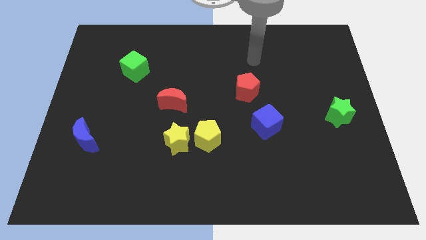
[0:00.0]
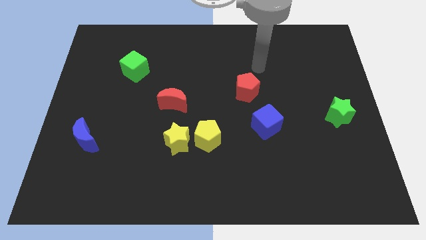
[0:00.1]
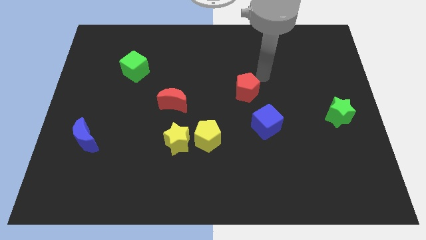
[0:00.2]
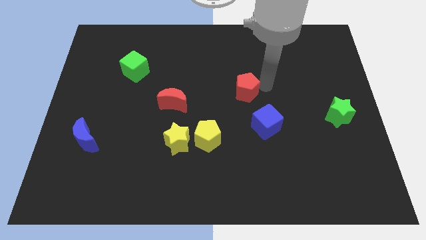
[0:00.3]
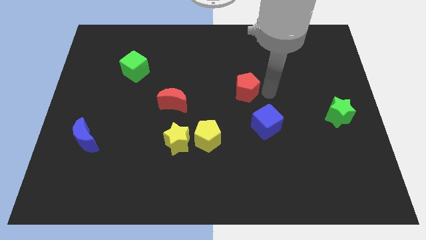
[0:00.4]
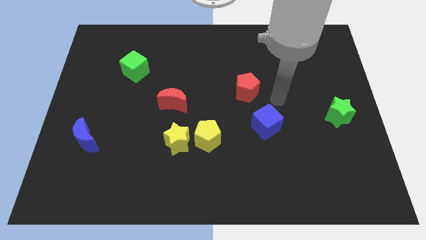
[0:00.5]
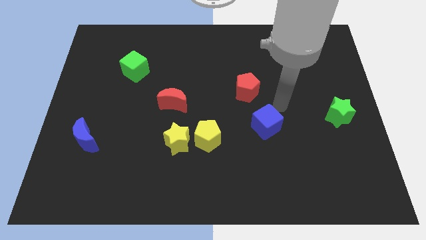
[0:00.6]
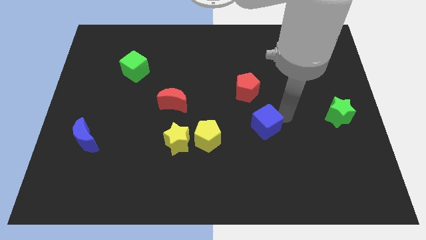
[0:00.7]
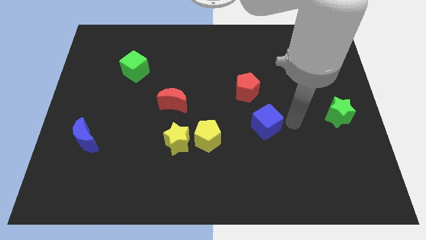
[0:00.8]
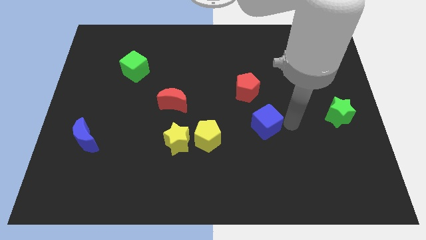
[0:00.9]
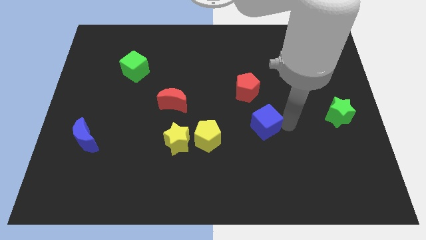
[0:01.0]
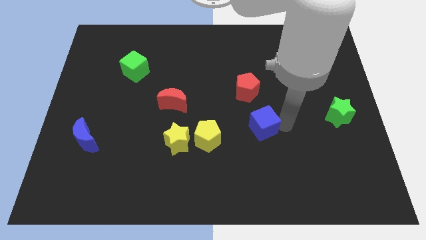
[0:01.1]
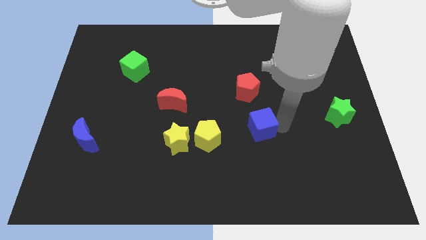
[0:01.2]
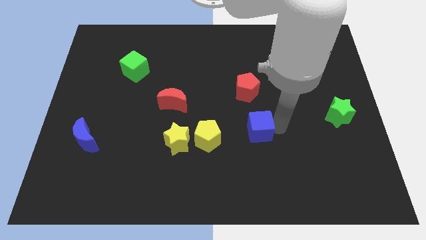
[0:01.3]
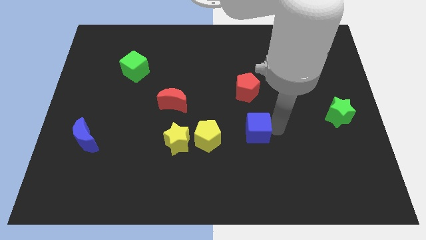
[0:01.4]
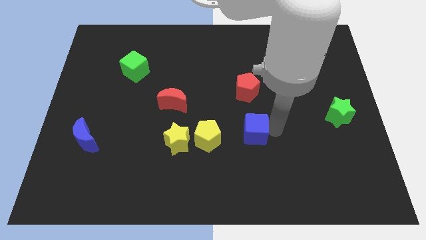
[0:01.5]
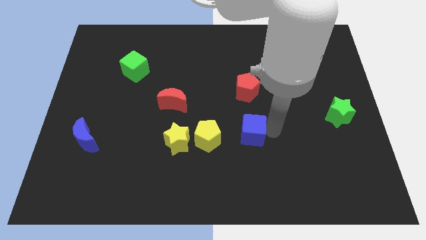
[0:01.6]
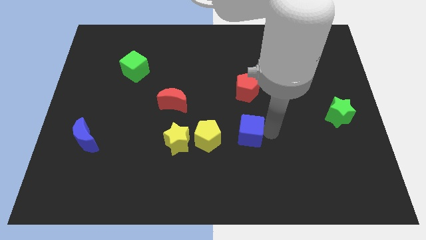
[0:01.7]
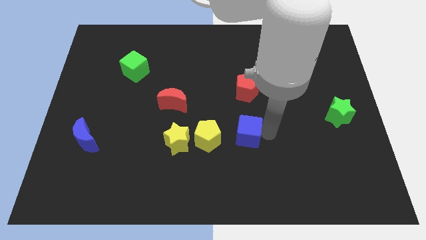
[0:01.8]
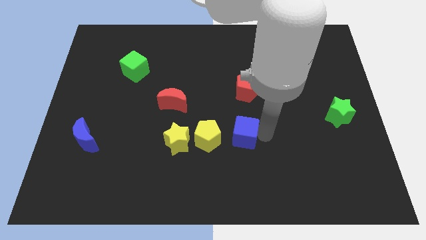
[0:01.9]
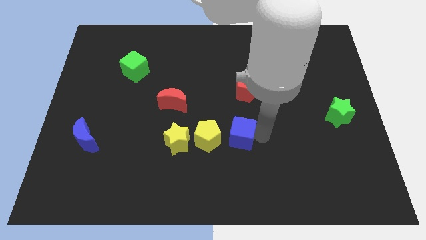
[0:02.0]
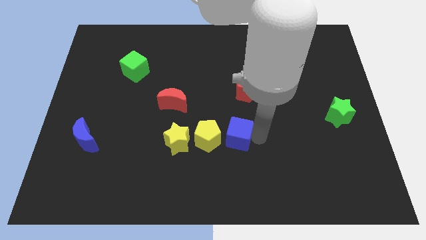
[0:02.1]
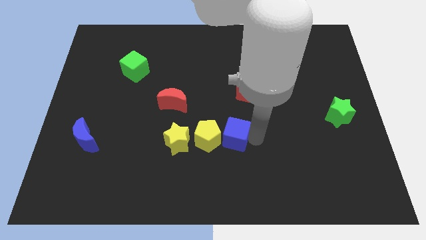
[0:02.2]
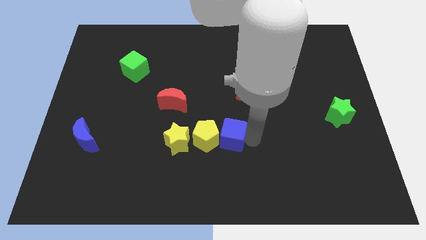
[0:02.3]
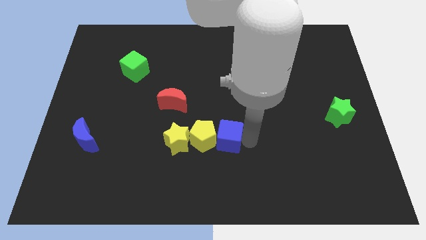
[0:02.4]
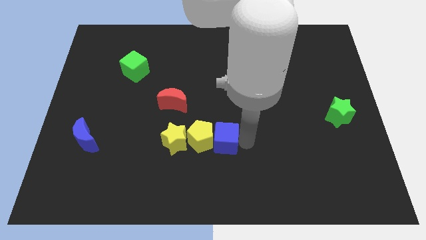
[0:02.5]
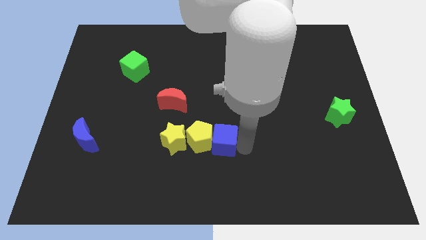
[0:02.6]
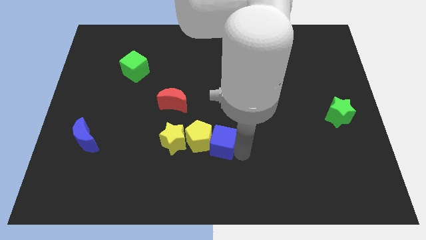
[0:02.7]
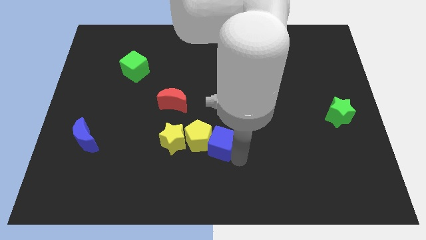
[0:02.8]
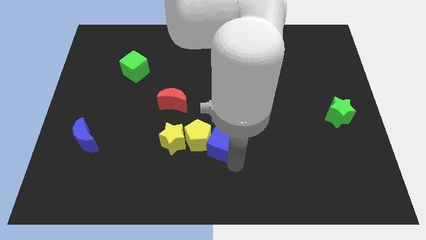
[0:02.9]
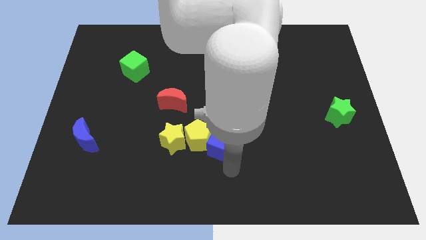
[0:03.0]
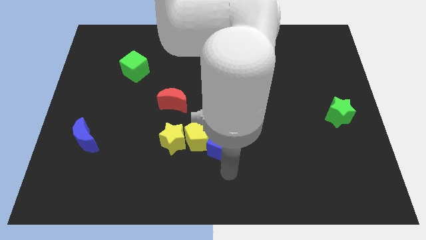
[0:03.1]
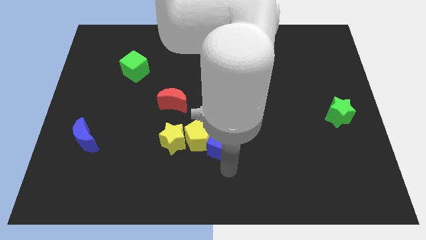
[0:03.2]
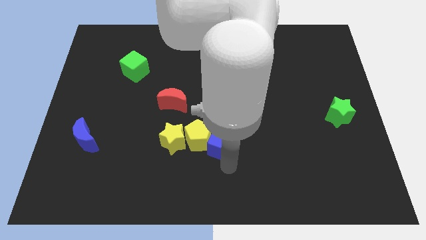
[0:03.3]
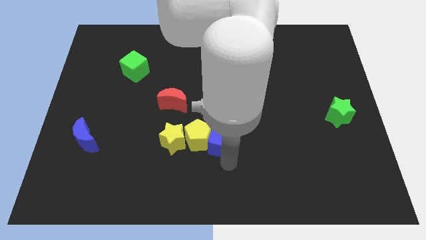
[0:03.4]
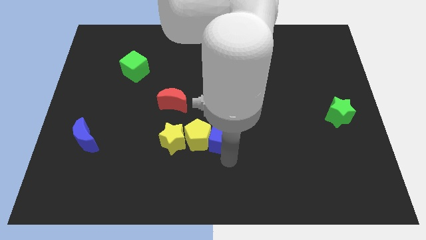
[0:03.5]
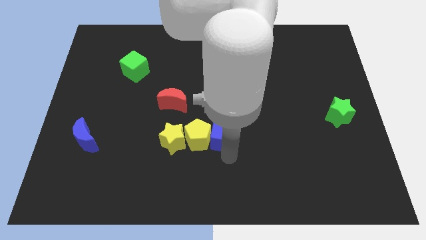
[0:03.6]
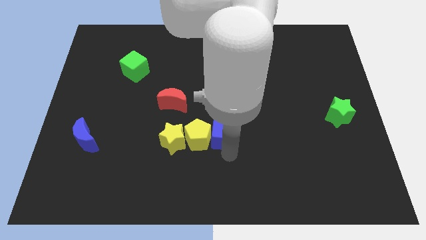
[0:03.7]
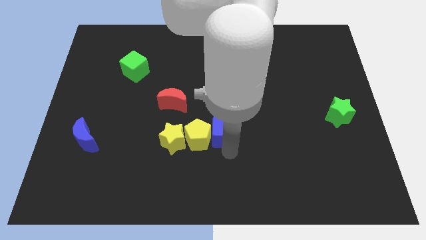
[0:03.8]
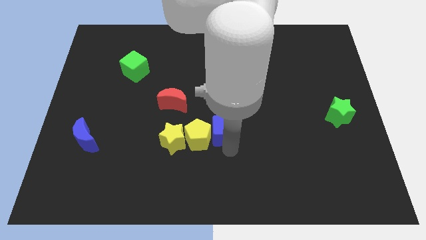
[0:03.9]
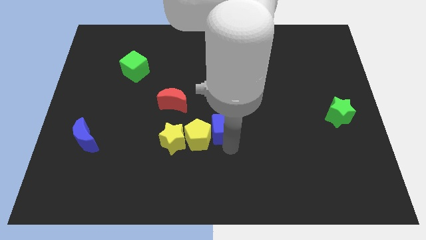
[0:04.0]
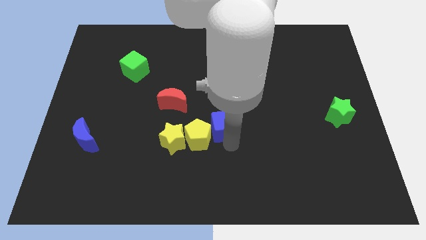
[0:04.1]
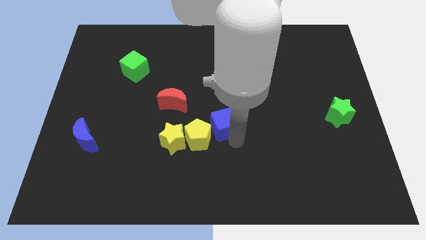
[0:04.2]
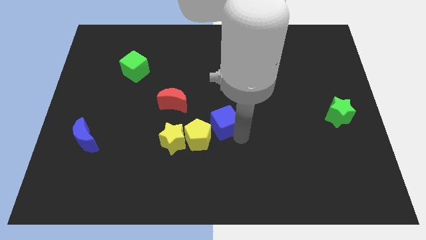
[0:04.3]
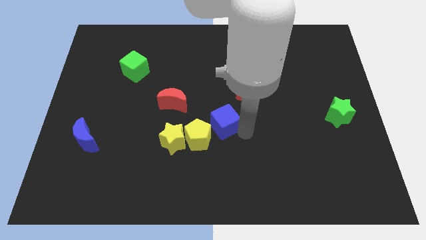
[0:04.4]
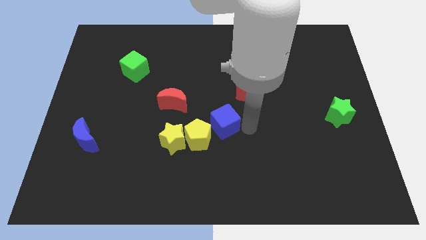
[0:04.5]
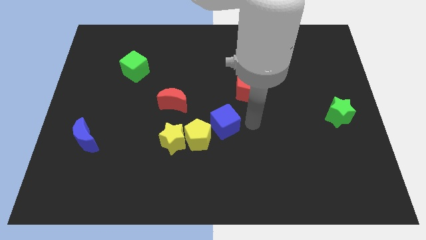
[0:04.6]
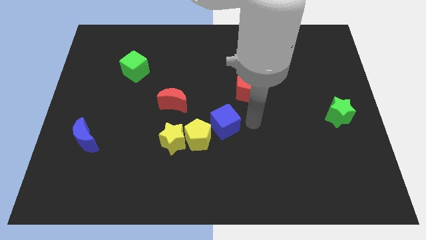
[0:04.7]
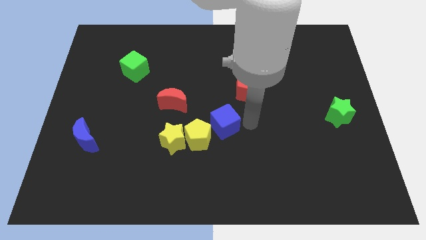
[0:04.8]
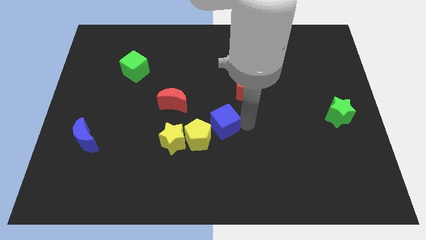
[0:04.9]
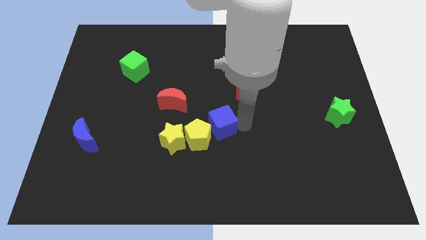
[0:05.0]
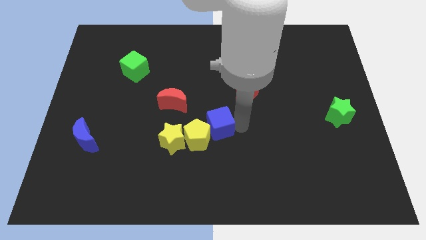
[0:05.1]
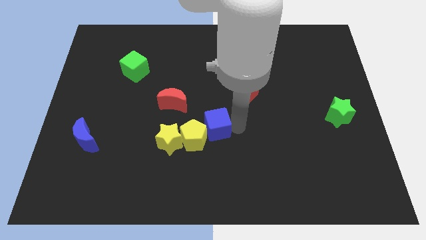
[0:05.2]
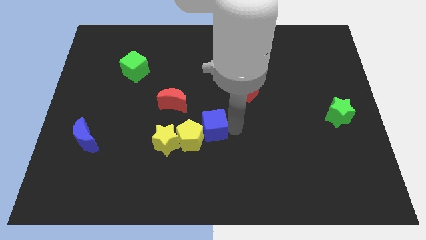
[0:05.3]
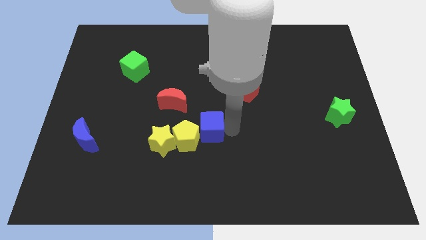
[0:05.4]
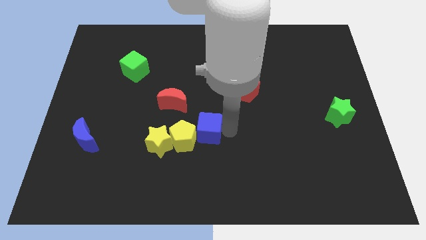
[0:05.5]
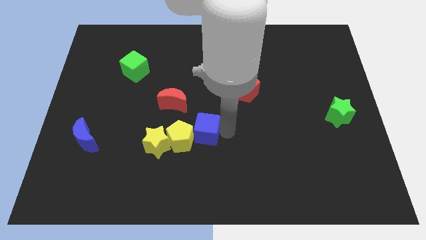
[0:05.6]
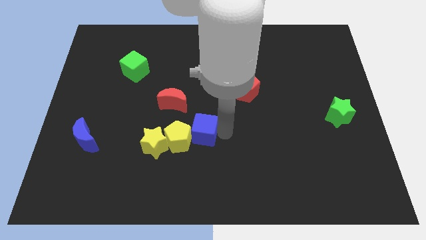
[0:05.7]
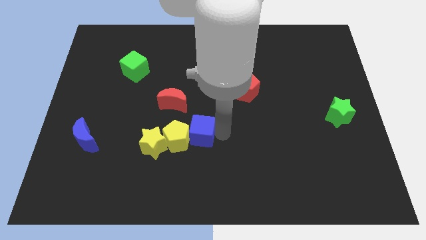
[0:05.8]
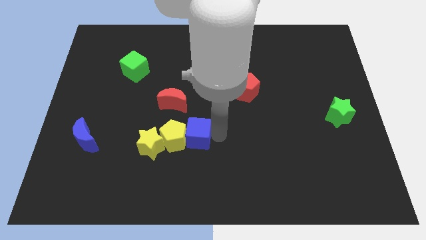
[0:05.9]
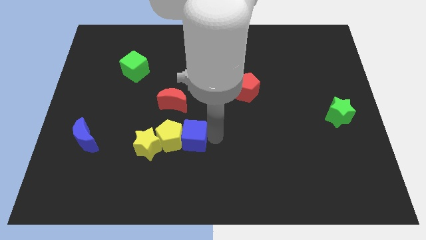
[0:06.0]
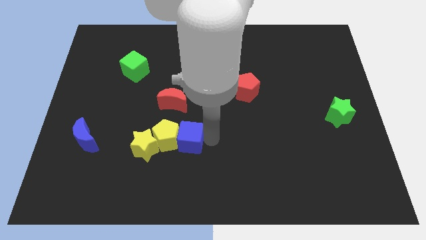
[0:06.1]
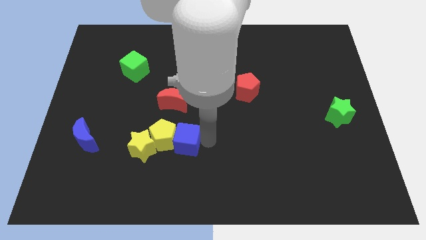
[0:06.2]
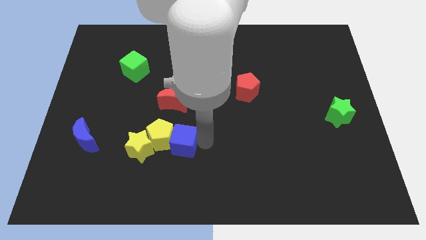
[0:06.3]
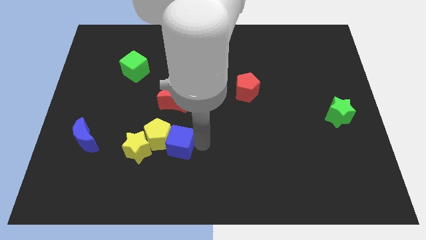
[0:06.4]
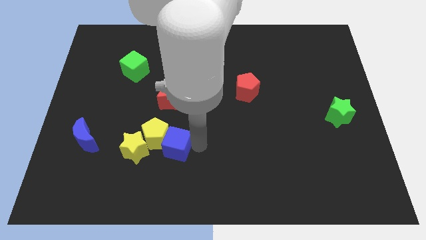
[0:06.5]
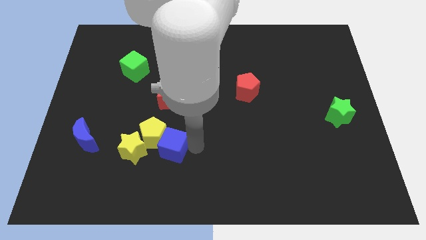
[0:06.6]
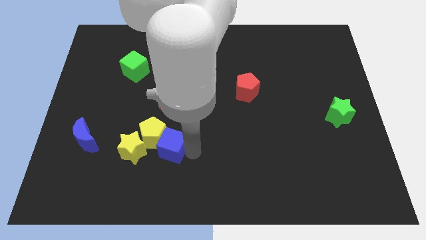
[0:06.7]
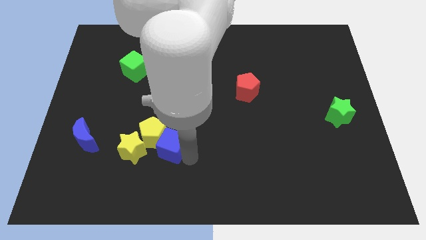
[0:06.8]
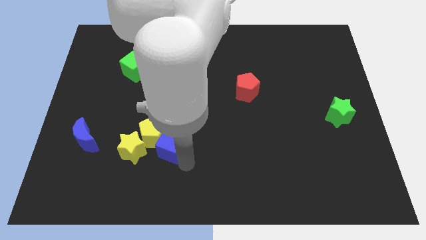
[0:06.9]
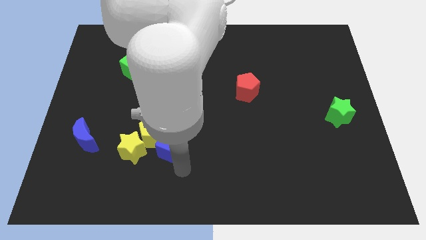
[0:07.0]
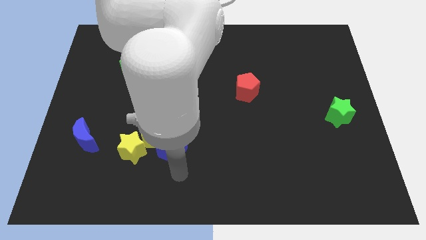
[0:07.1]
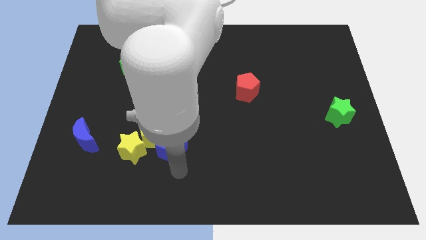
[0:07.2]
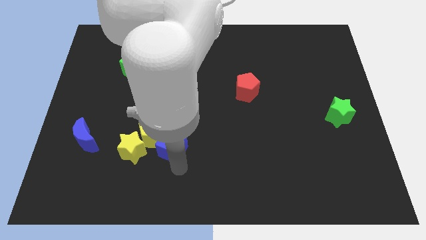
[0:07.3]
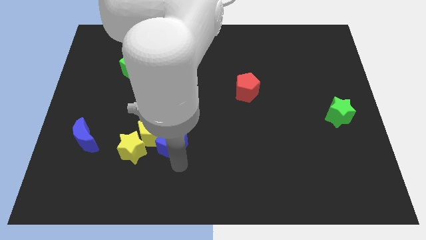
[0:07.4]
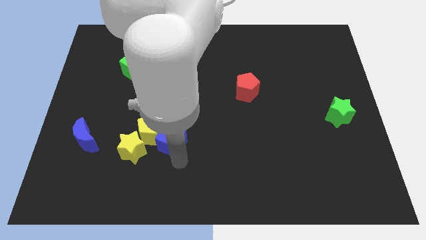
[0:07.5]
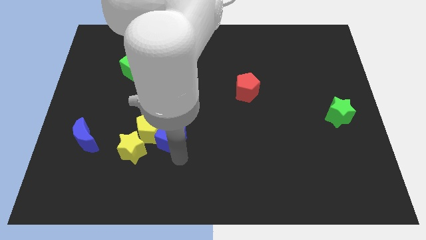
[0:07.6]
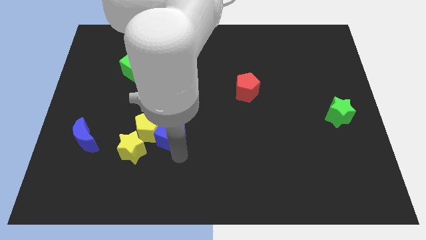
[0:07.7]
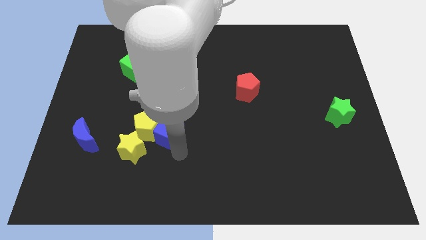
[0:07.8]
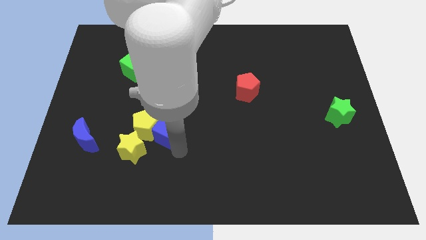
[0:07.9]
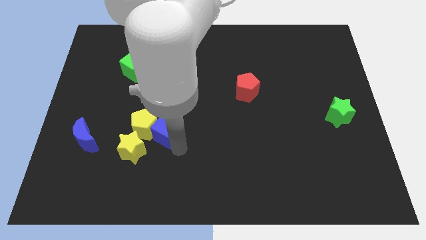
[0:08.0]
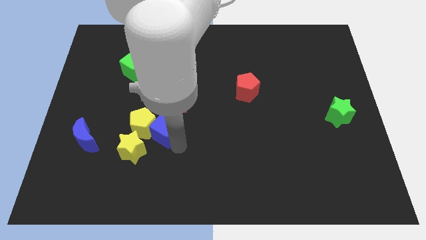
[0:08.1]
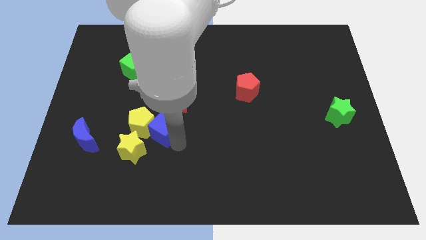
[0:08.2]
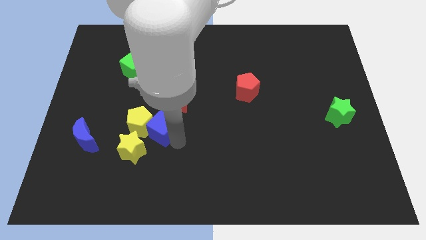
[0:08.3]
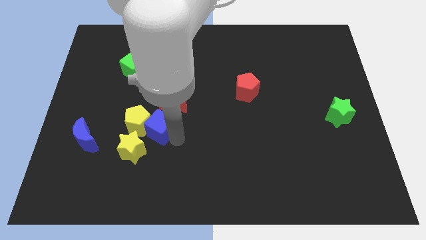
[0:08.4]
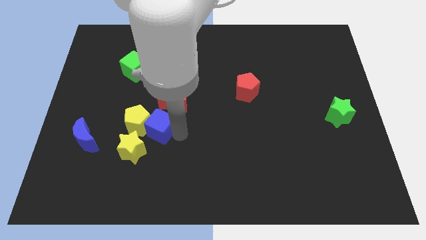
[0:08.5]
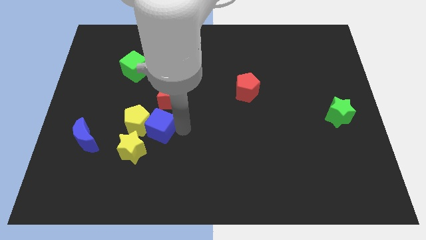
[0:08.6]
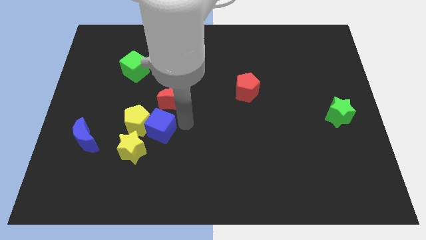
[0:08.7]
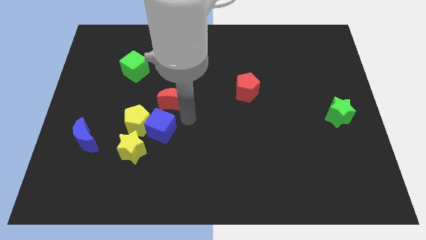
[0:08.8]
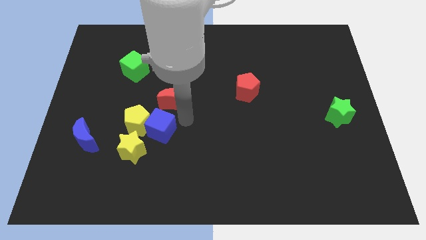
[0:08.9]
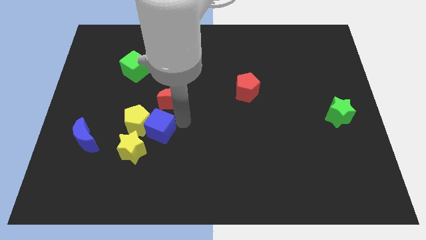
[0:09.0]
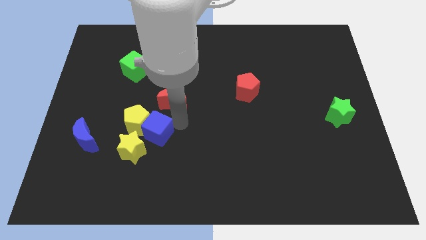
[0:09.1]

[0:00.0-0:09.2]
put the blue cube just right of the blue moon
